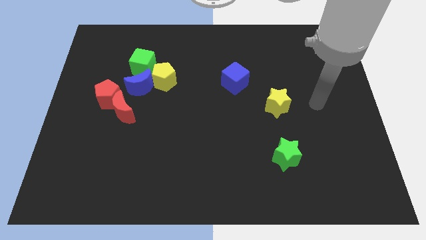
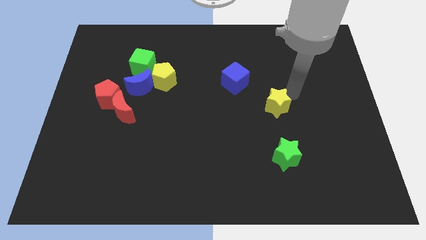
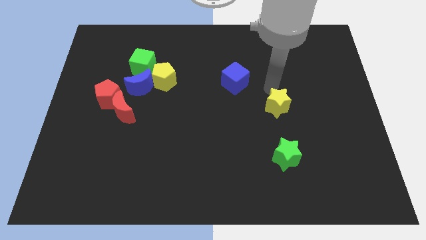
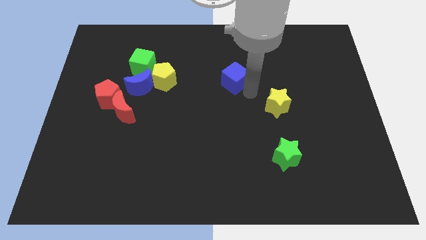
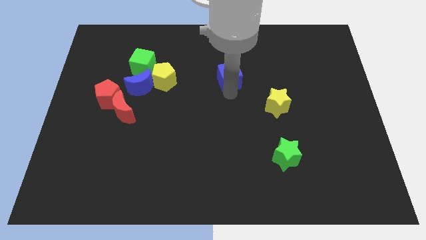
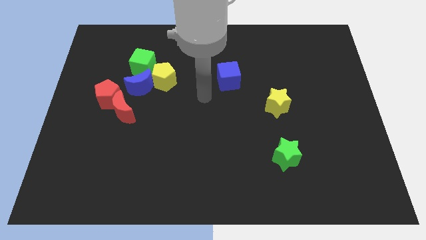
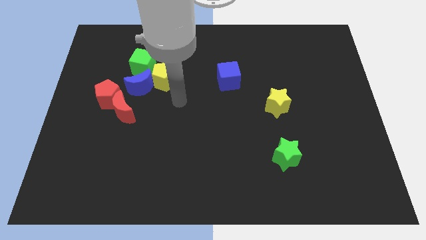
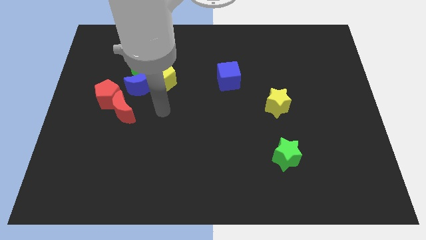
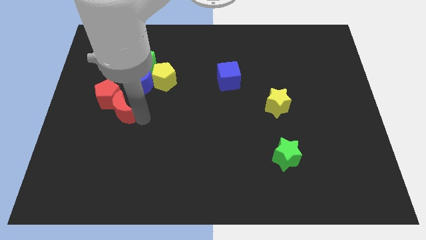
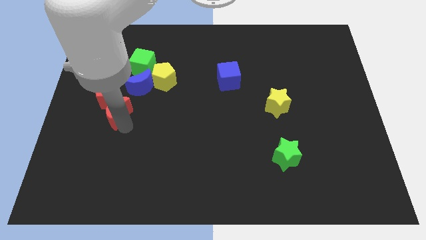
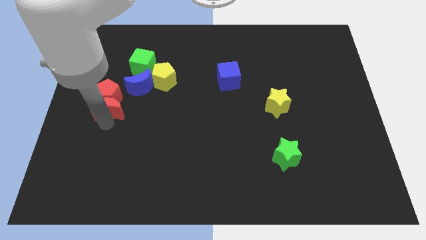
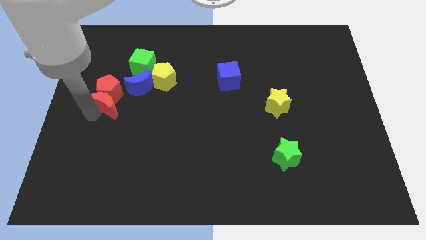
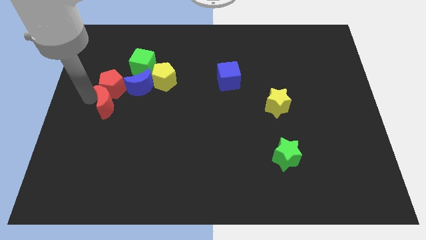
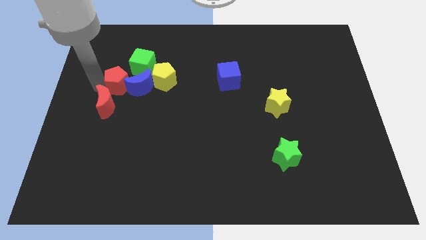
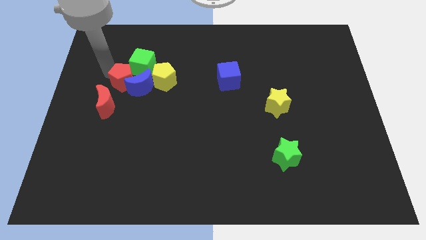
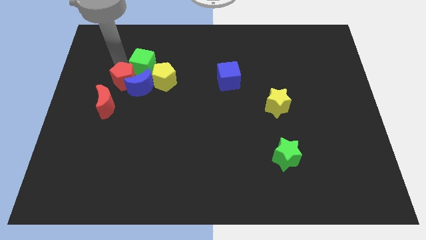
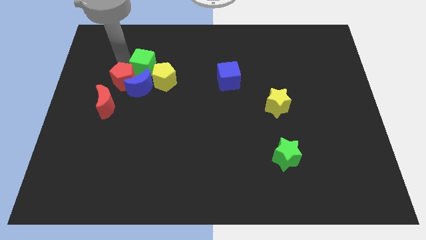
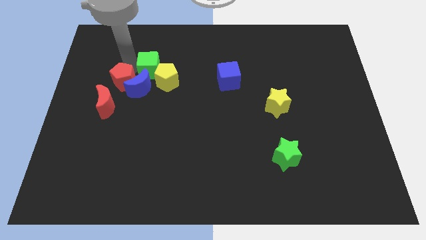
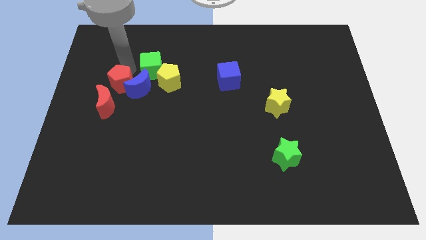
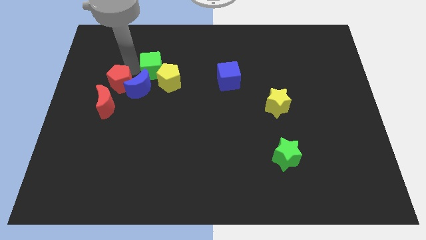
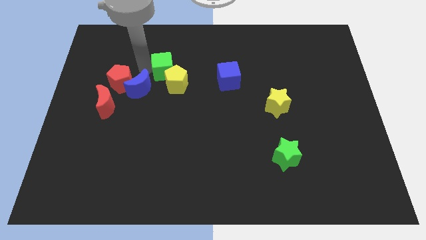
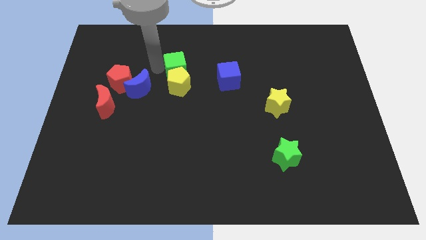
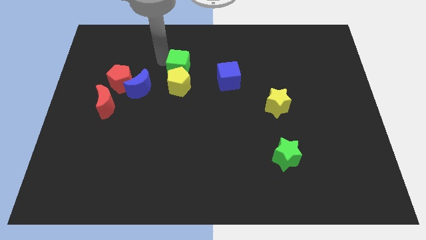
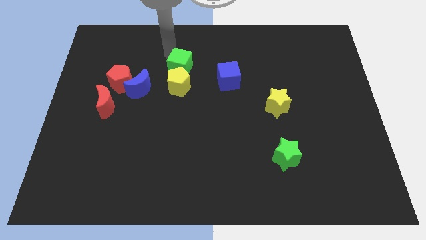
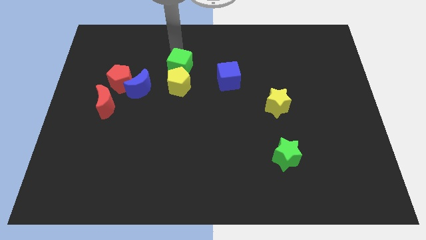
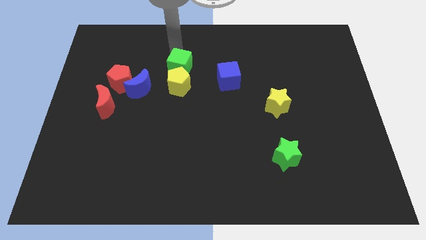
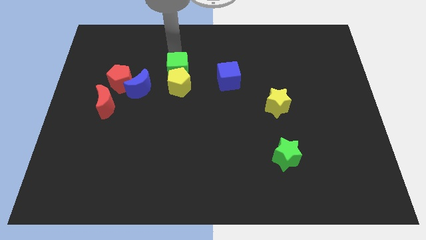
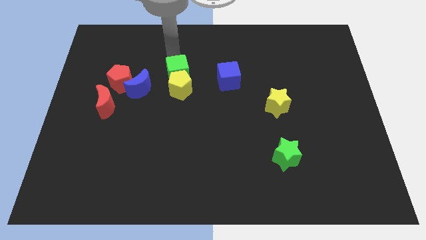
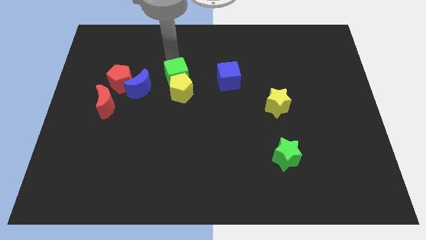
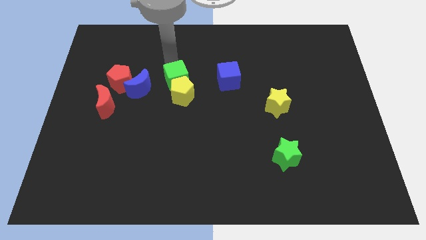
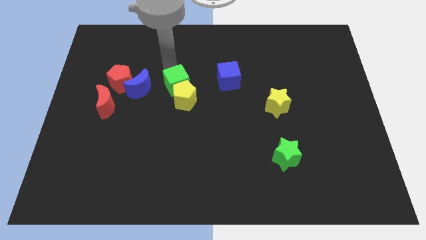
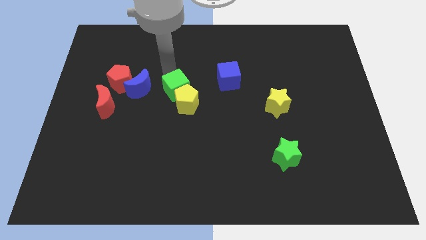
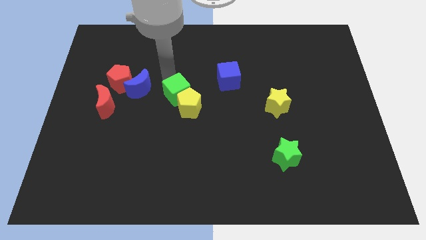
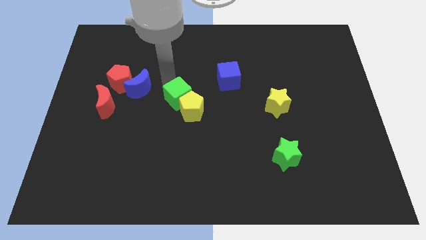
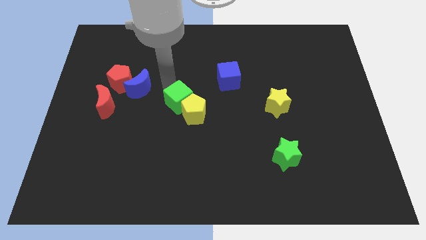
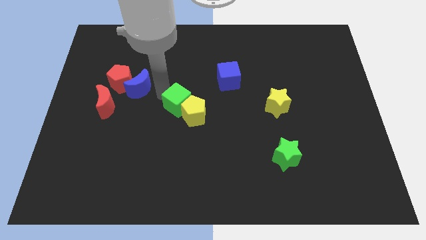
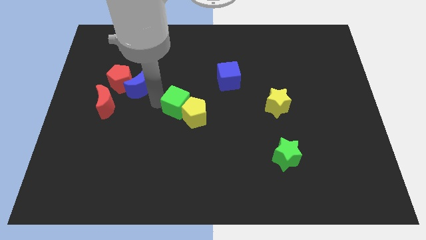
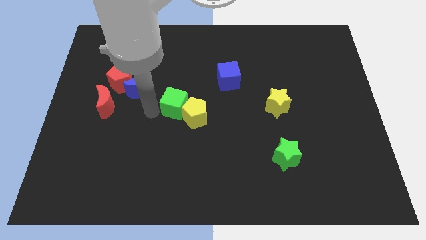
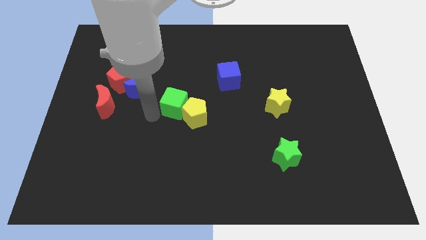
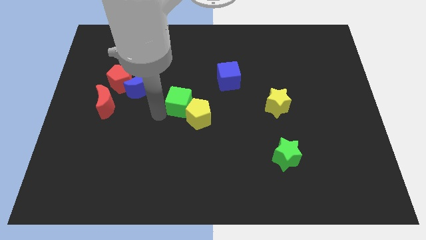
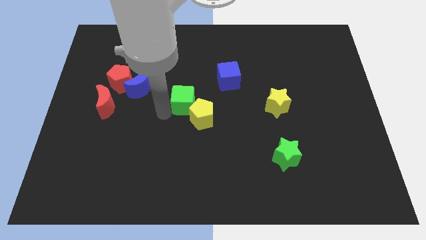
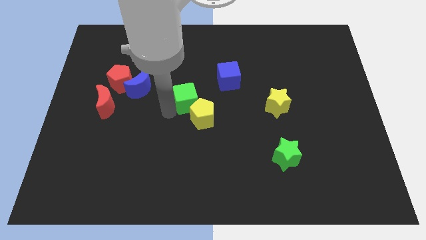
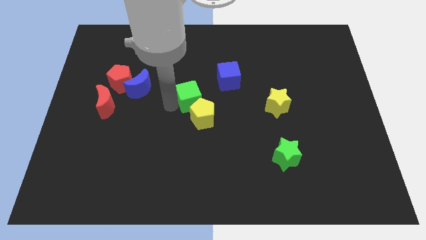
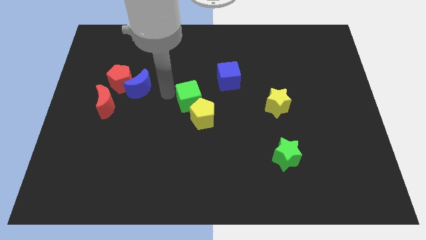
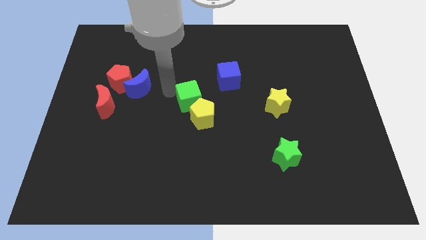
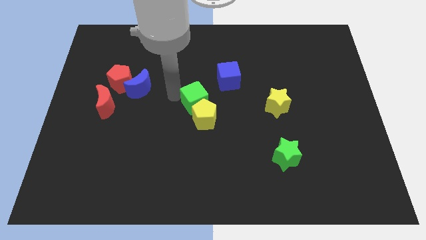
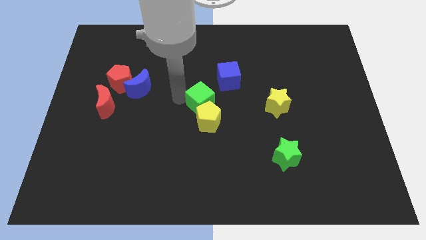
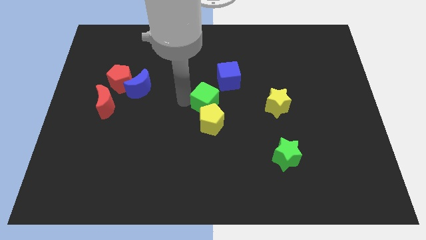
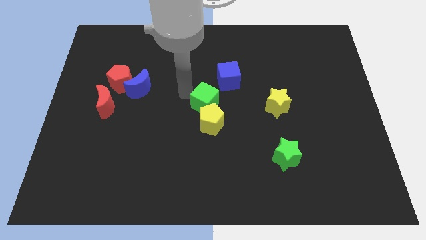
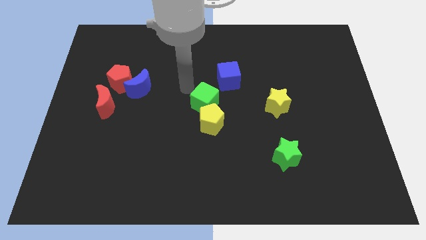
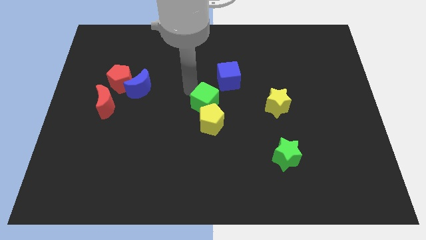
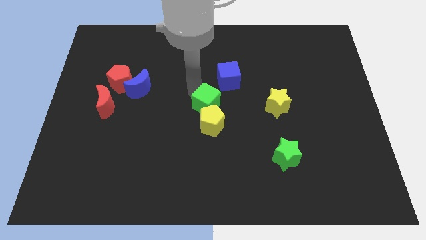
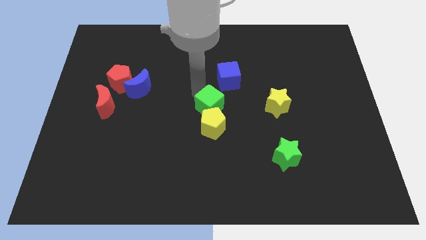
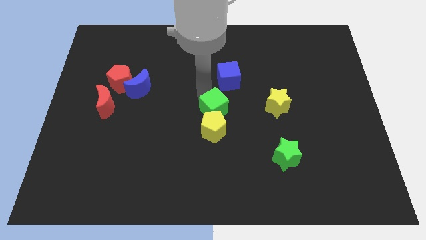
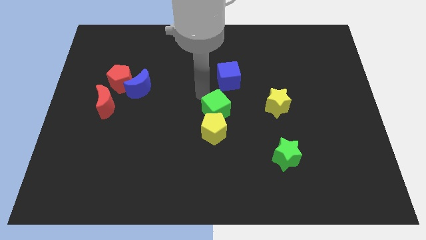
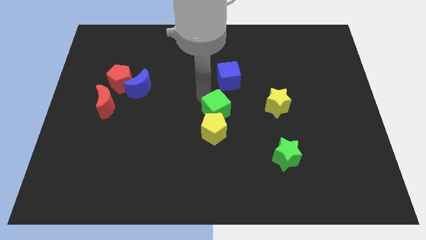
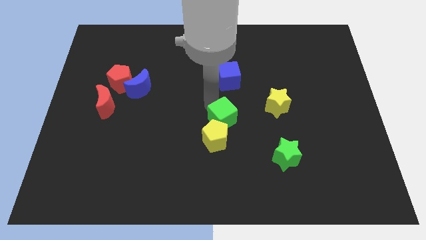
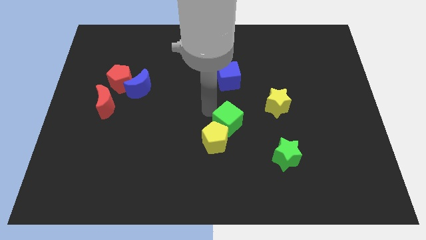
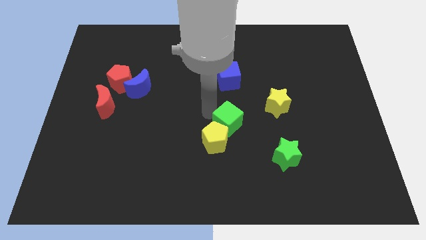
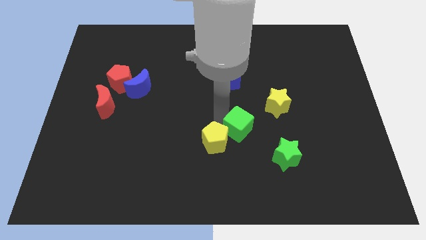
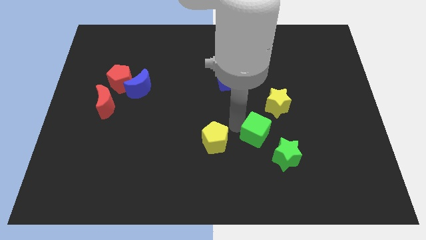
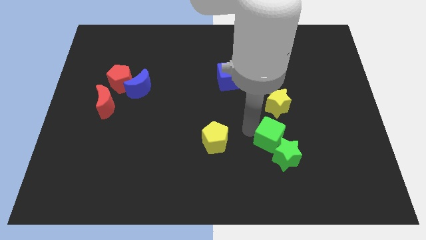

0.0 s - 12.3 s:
move the green cube to the green star
